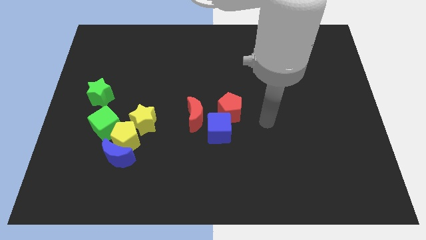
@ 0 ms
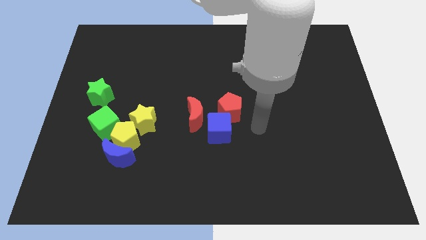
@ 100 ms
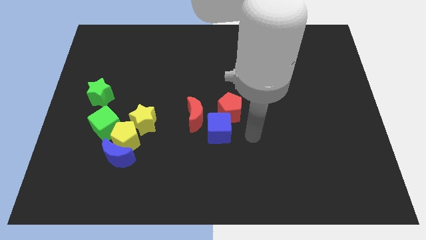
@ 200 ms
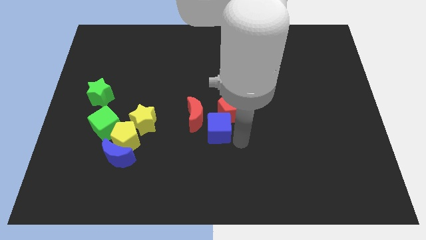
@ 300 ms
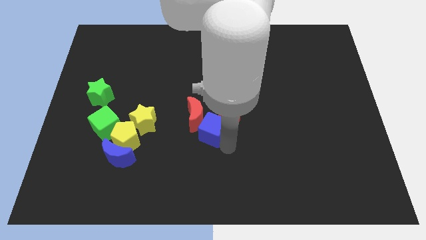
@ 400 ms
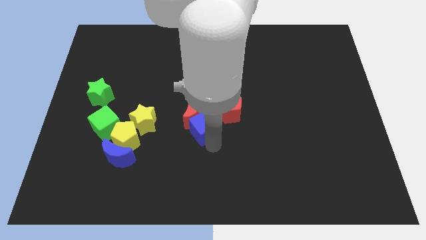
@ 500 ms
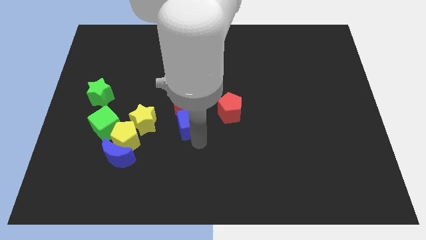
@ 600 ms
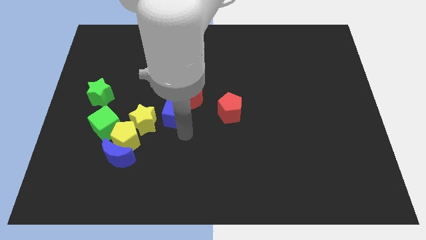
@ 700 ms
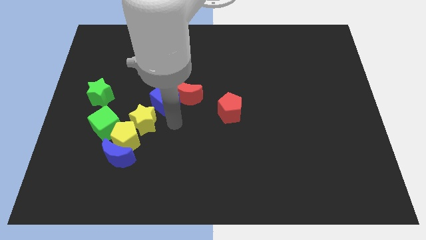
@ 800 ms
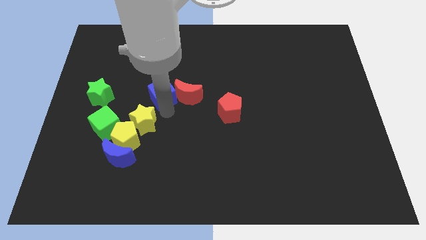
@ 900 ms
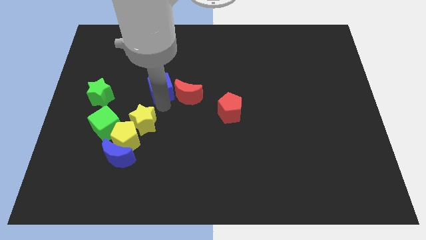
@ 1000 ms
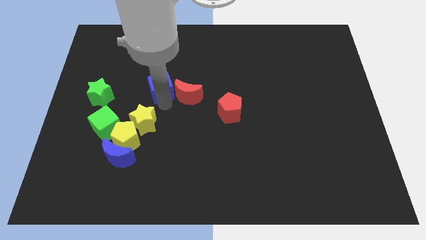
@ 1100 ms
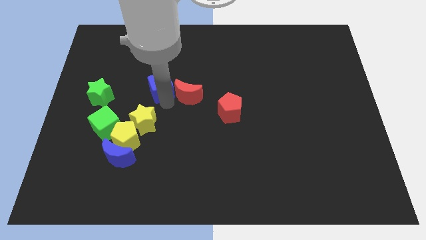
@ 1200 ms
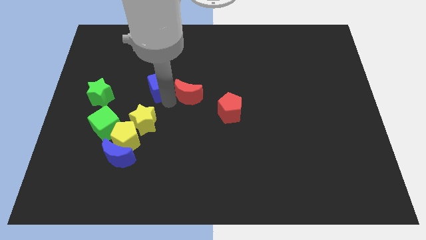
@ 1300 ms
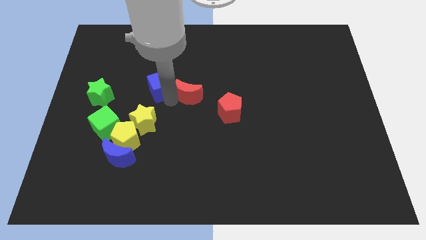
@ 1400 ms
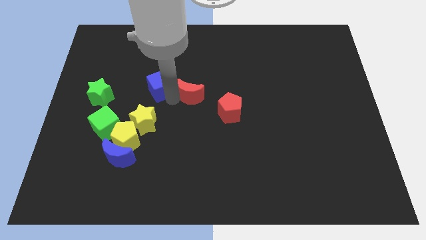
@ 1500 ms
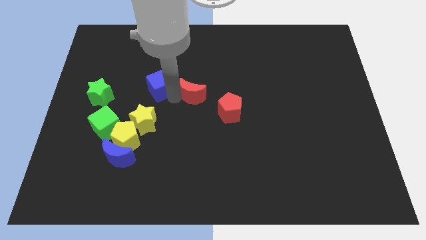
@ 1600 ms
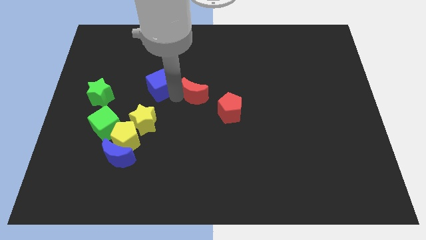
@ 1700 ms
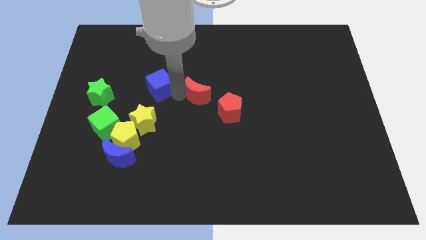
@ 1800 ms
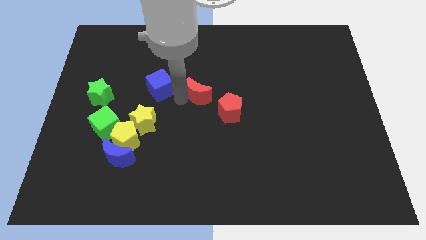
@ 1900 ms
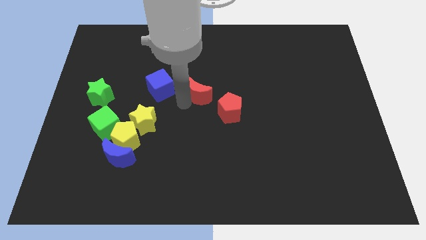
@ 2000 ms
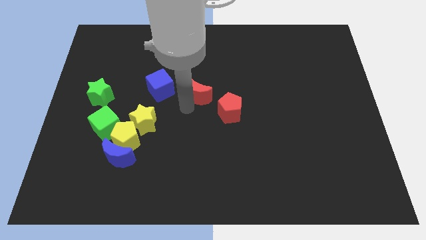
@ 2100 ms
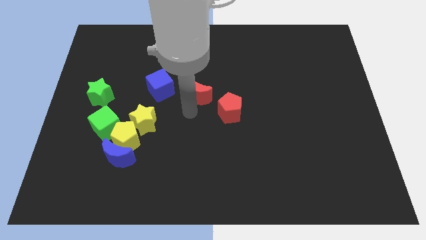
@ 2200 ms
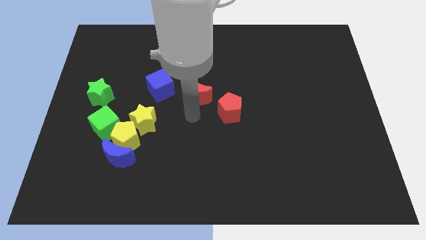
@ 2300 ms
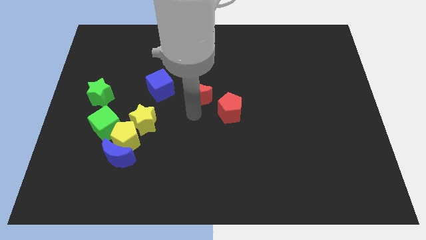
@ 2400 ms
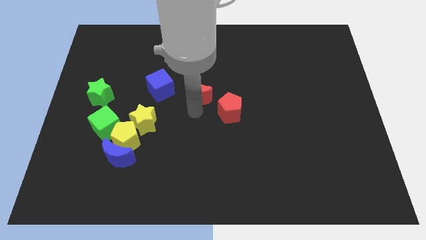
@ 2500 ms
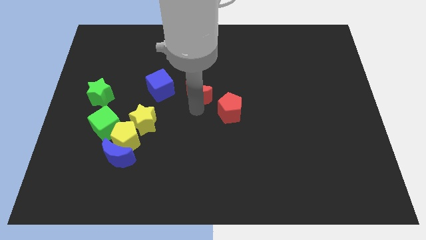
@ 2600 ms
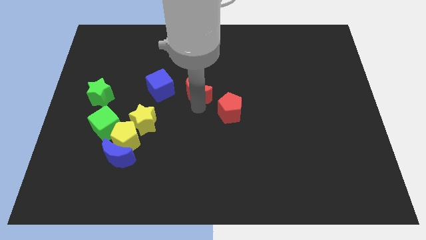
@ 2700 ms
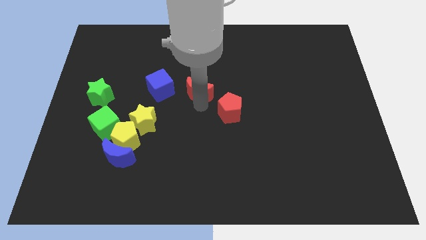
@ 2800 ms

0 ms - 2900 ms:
slightly move the red moon up

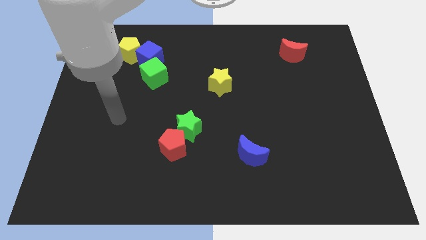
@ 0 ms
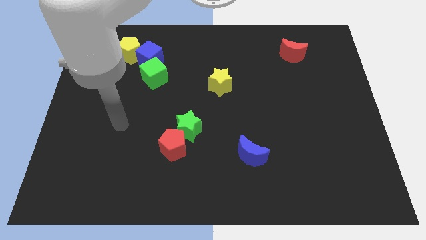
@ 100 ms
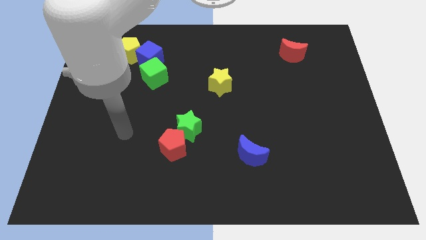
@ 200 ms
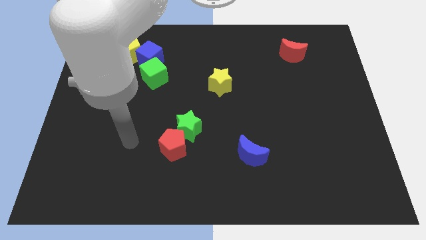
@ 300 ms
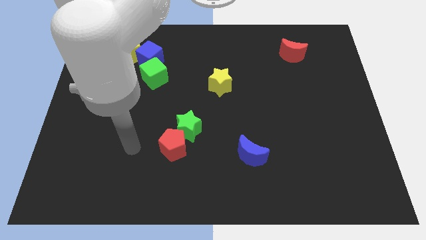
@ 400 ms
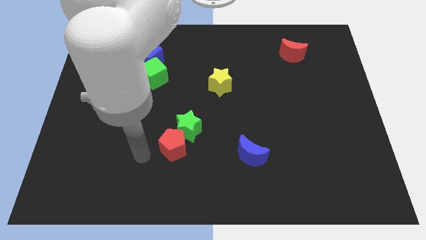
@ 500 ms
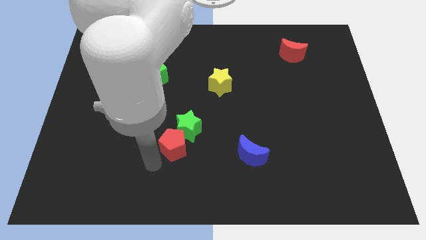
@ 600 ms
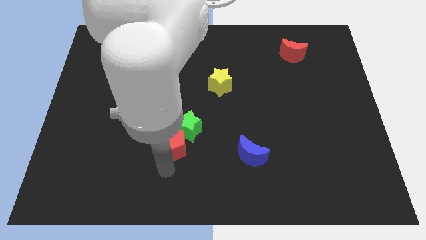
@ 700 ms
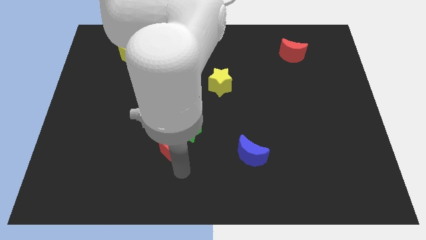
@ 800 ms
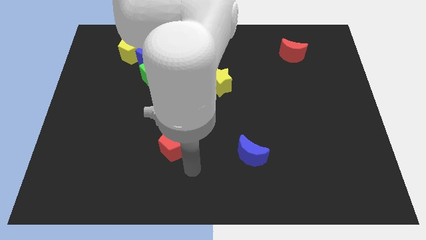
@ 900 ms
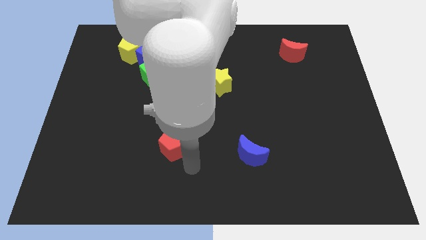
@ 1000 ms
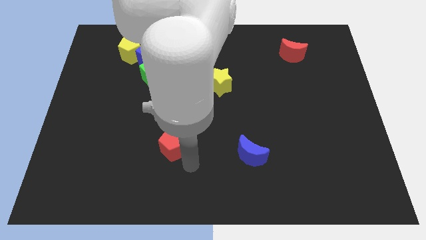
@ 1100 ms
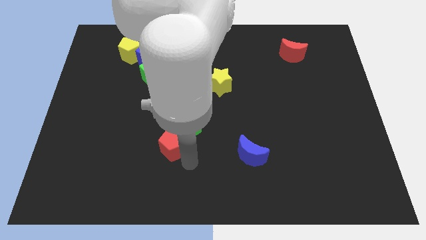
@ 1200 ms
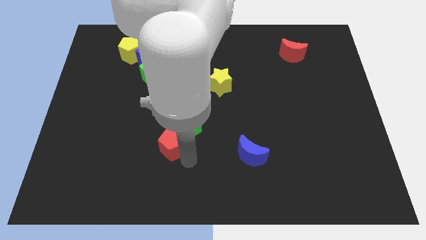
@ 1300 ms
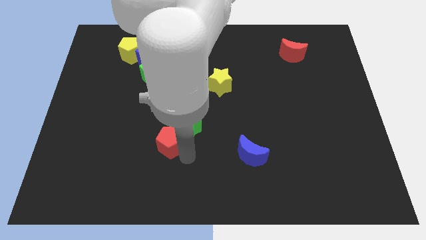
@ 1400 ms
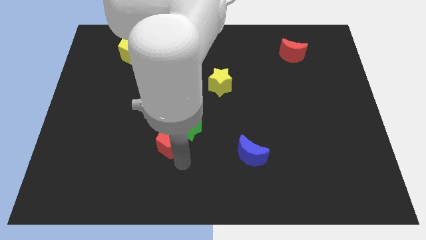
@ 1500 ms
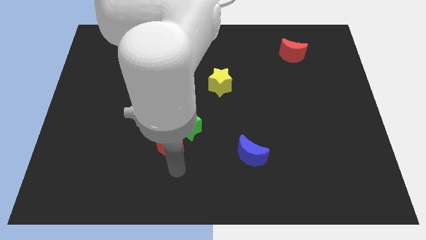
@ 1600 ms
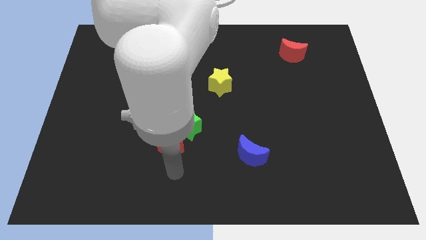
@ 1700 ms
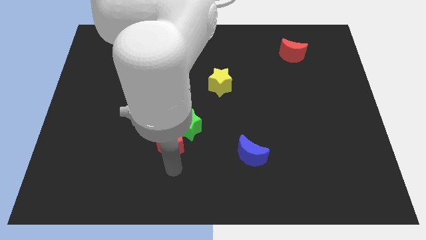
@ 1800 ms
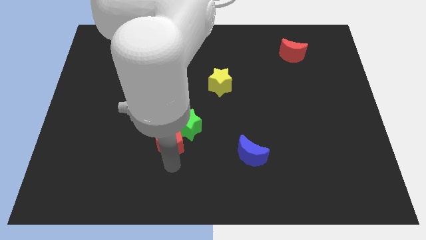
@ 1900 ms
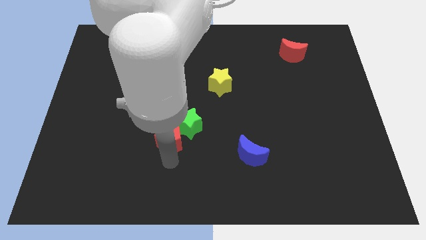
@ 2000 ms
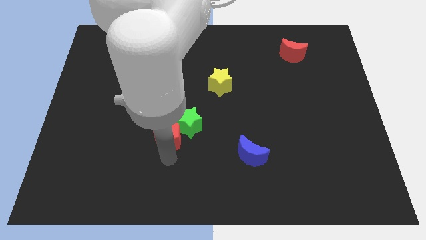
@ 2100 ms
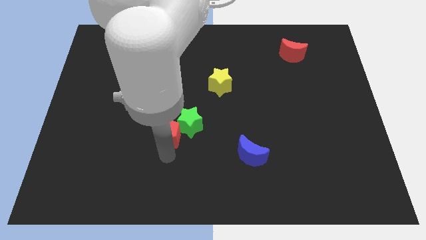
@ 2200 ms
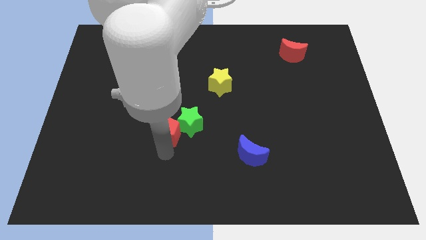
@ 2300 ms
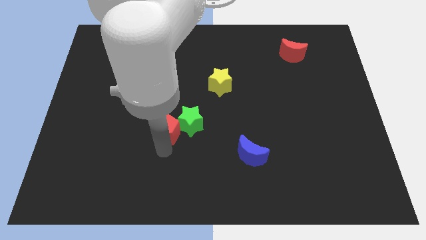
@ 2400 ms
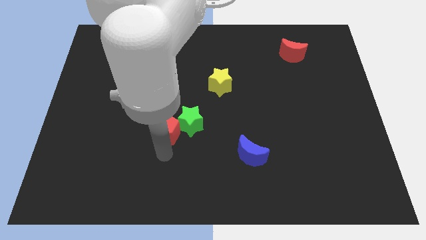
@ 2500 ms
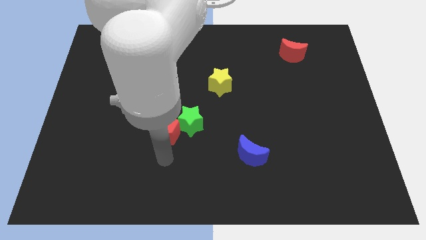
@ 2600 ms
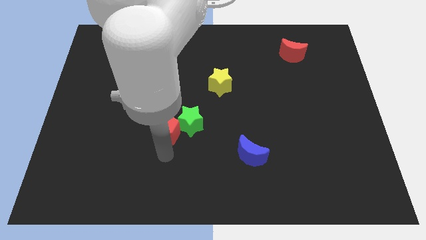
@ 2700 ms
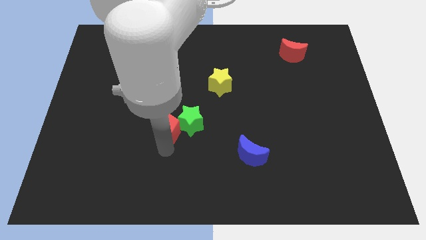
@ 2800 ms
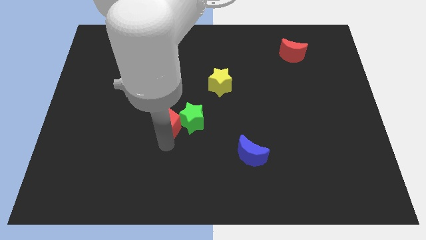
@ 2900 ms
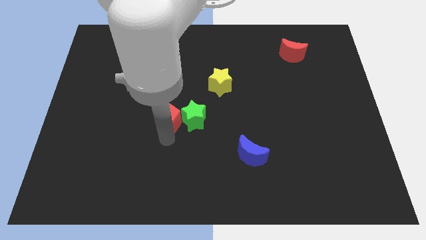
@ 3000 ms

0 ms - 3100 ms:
slightly slide the red pentagon upwards

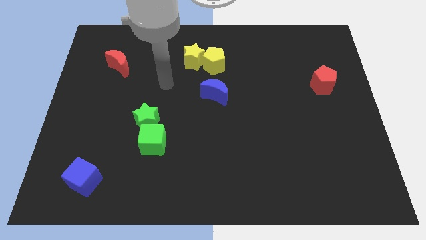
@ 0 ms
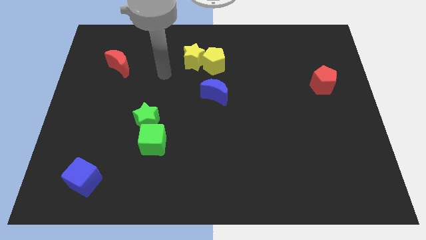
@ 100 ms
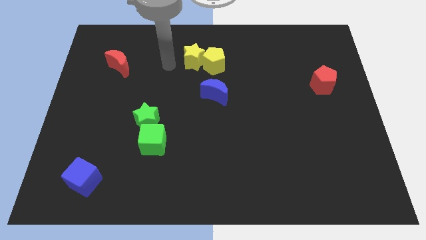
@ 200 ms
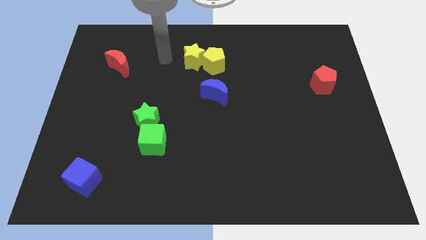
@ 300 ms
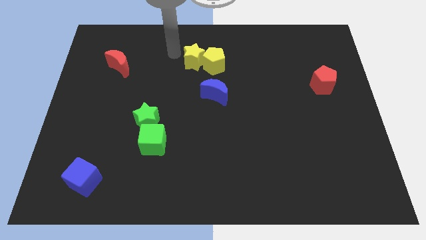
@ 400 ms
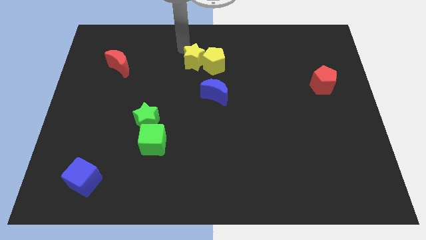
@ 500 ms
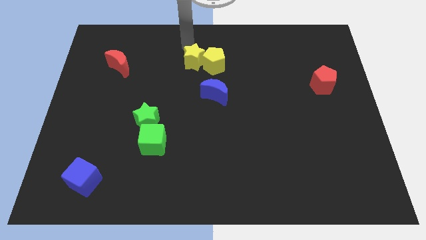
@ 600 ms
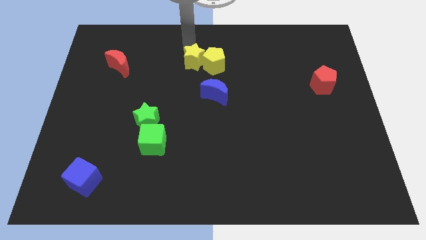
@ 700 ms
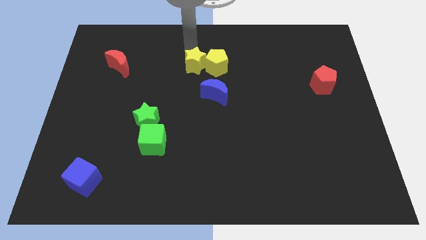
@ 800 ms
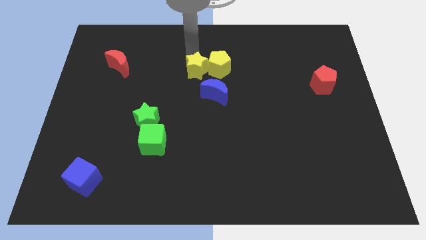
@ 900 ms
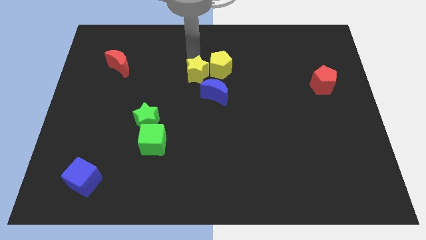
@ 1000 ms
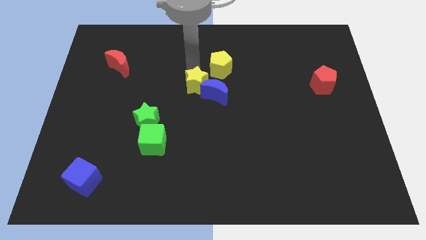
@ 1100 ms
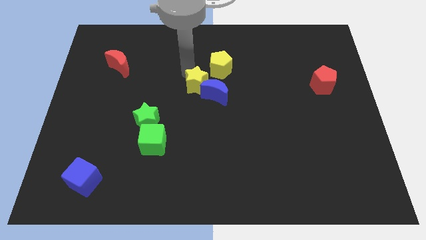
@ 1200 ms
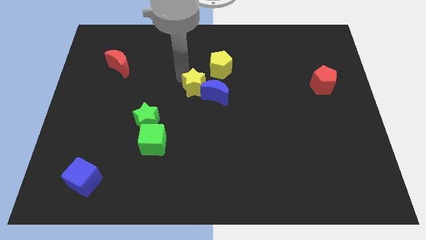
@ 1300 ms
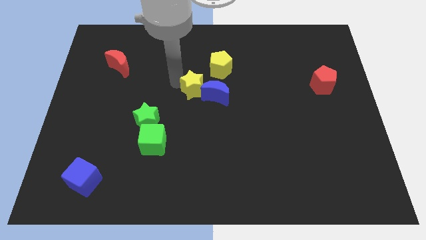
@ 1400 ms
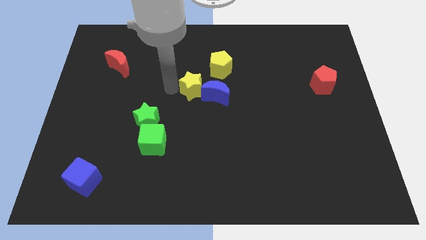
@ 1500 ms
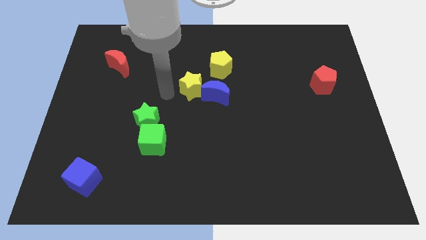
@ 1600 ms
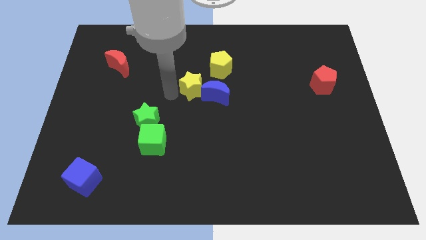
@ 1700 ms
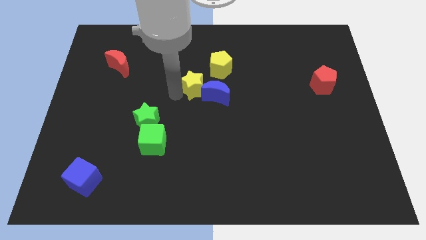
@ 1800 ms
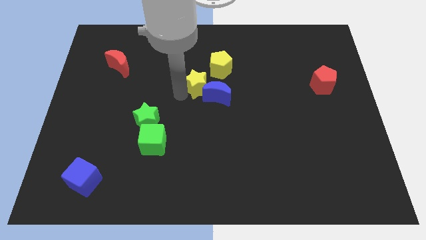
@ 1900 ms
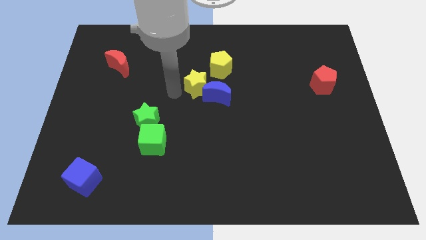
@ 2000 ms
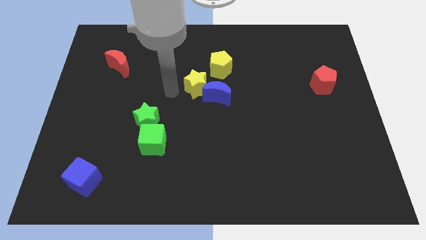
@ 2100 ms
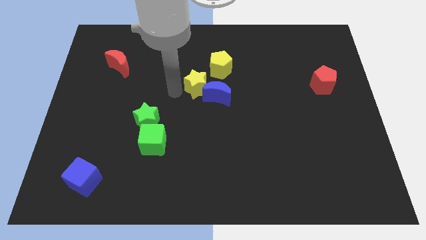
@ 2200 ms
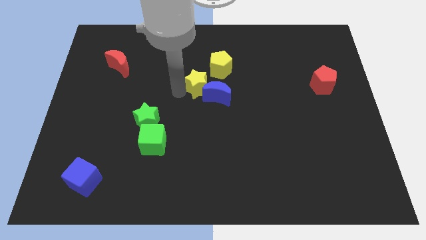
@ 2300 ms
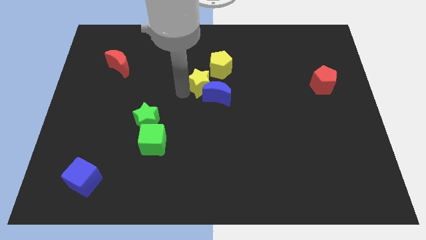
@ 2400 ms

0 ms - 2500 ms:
slightly slide the yellow star down and right
